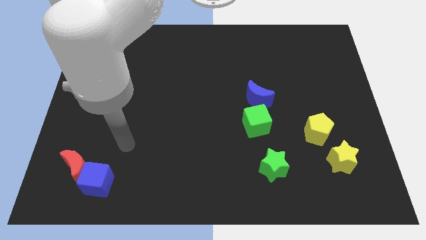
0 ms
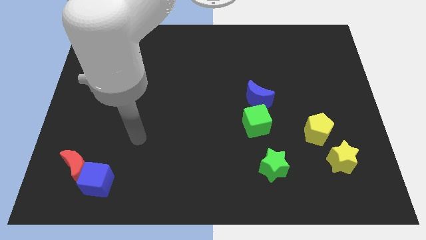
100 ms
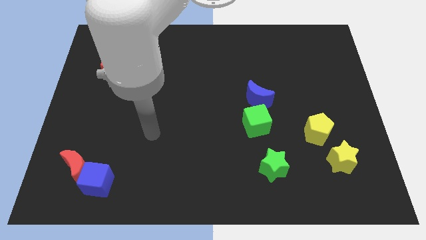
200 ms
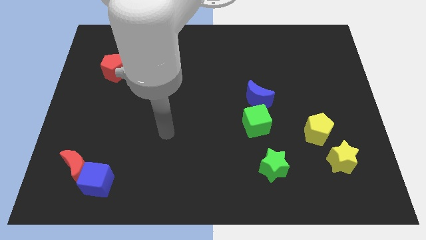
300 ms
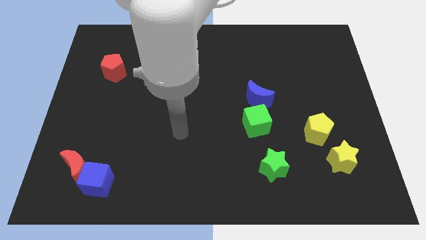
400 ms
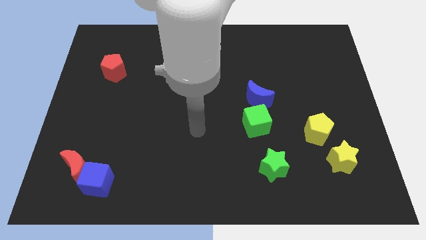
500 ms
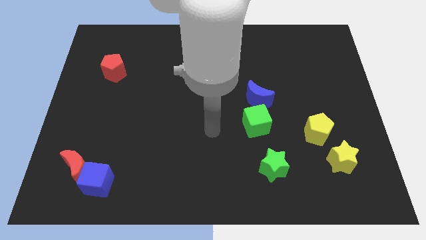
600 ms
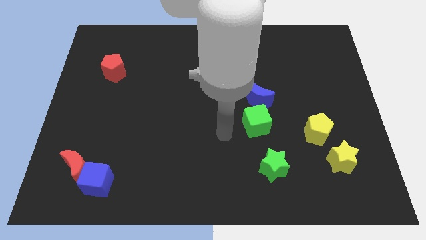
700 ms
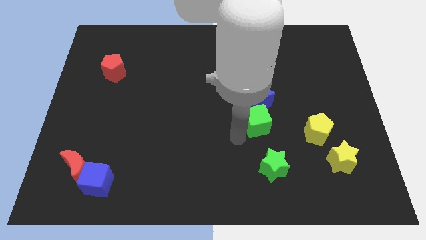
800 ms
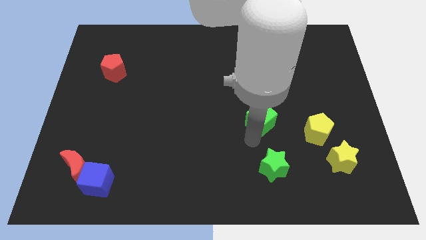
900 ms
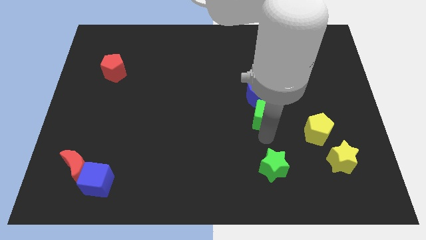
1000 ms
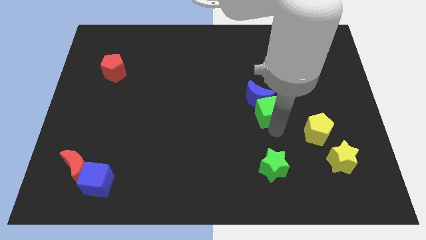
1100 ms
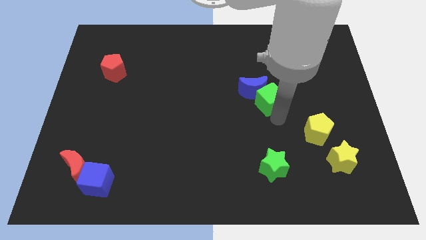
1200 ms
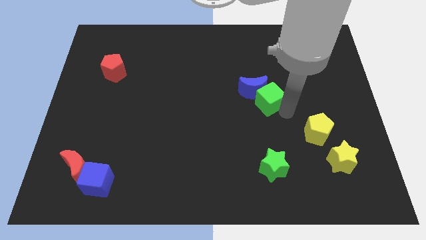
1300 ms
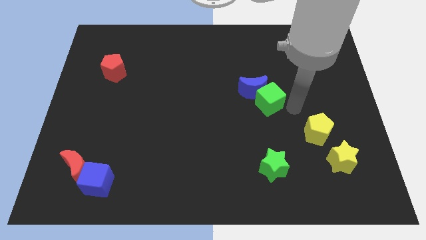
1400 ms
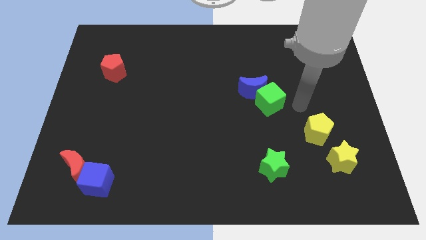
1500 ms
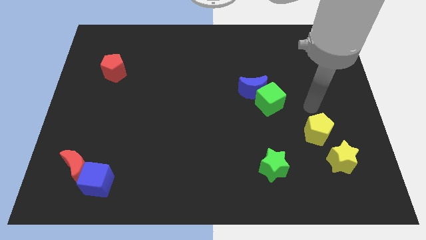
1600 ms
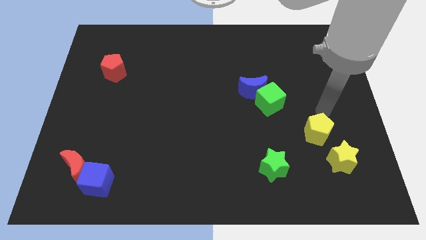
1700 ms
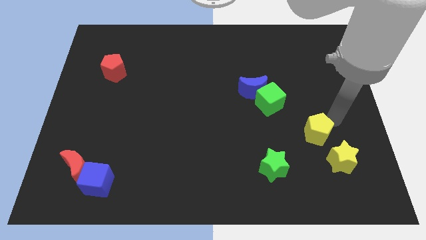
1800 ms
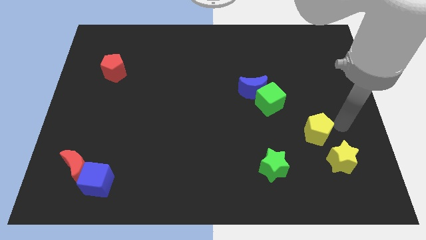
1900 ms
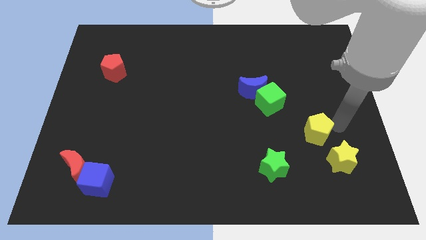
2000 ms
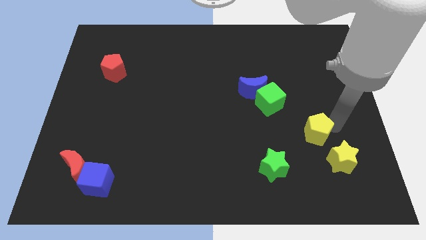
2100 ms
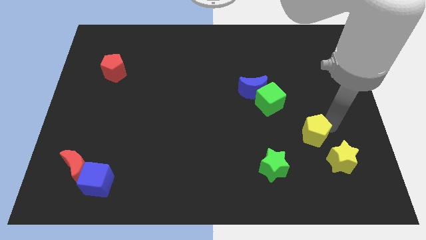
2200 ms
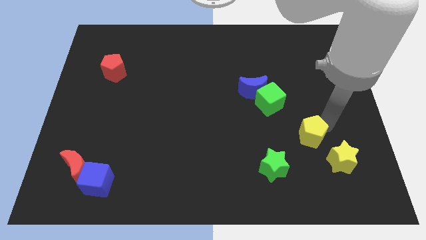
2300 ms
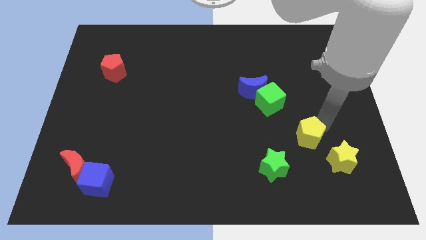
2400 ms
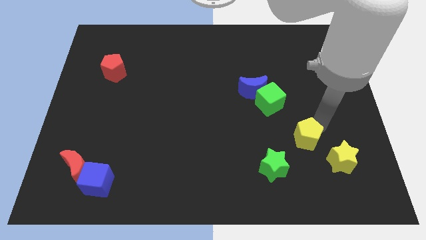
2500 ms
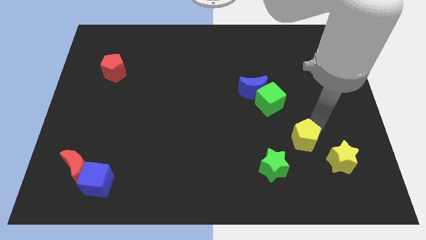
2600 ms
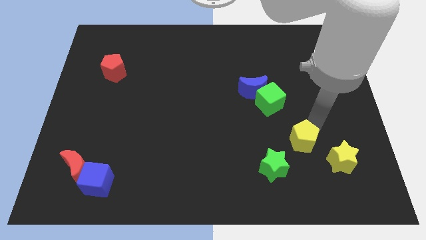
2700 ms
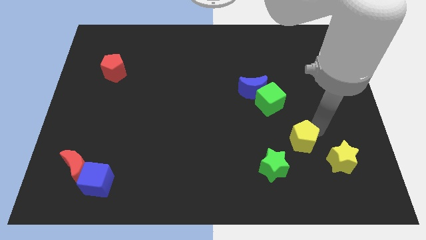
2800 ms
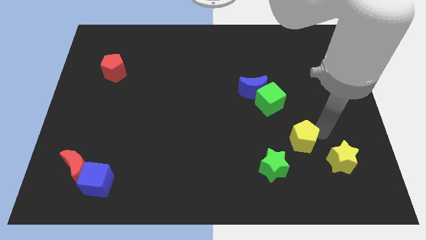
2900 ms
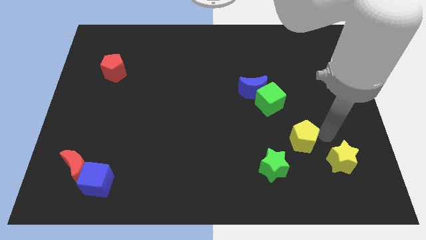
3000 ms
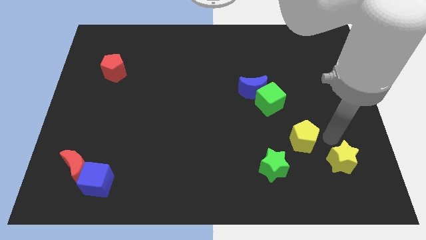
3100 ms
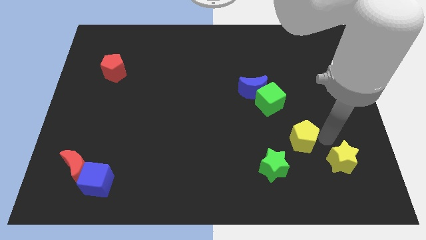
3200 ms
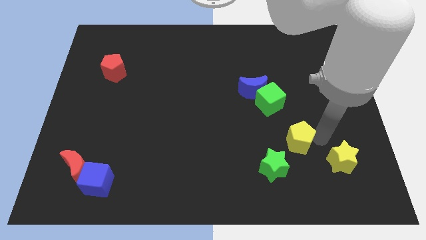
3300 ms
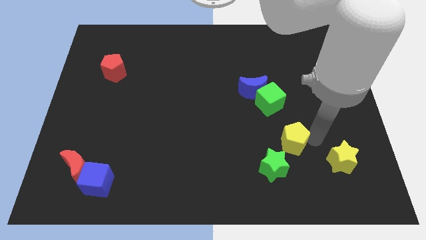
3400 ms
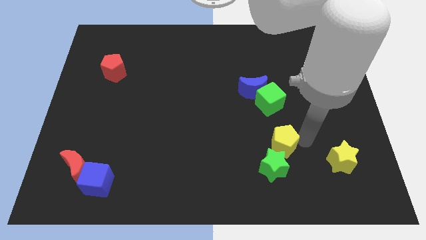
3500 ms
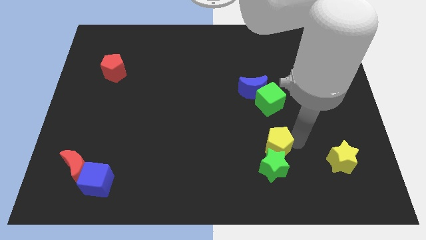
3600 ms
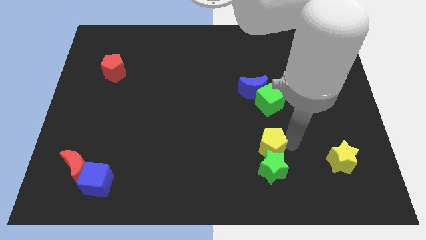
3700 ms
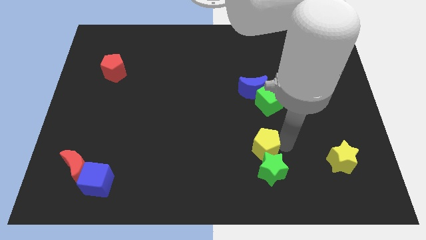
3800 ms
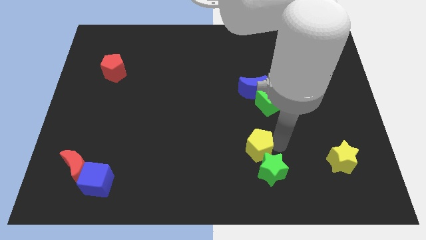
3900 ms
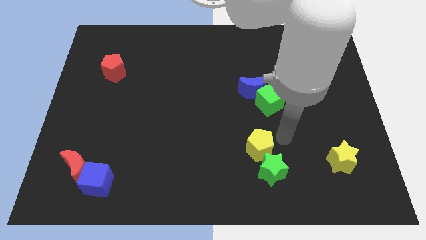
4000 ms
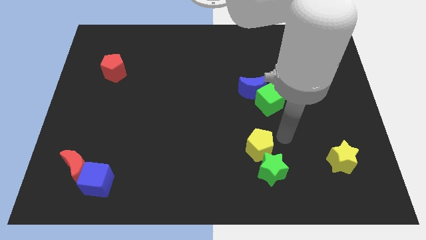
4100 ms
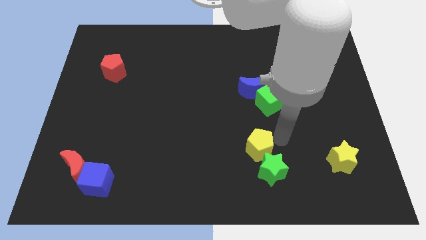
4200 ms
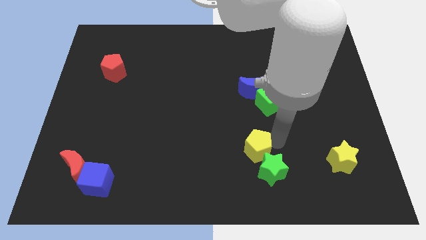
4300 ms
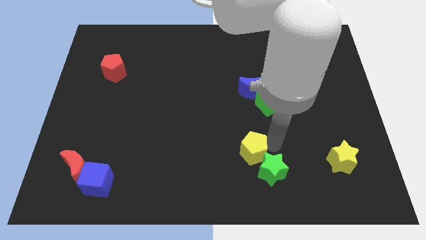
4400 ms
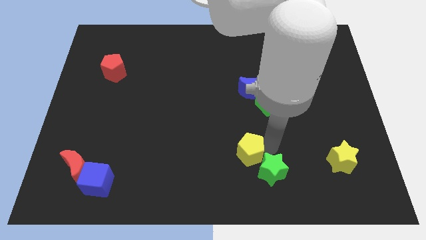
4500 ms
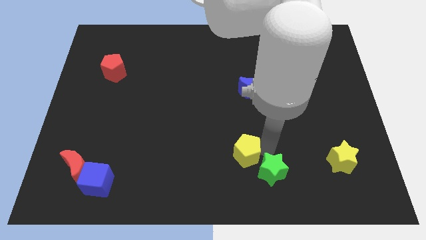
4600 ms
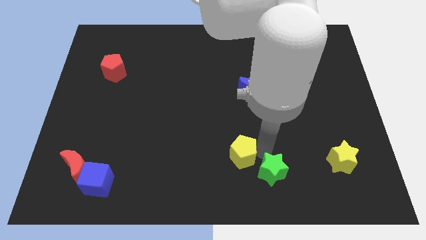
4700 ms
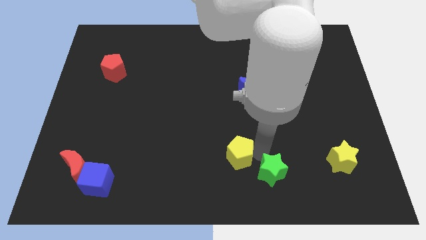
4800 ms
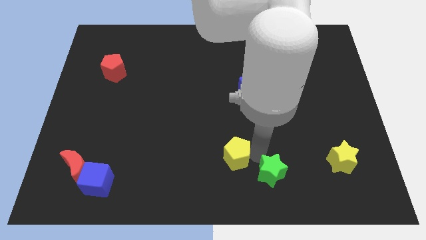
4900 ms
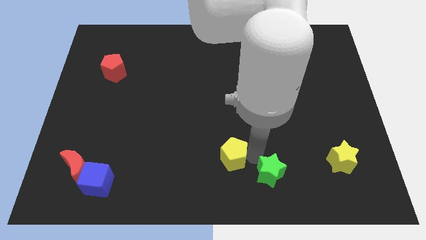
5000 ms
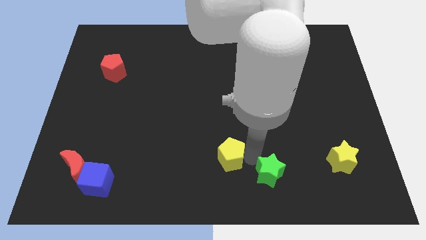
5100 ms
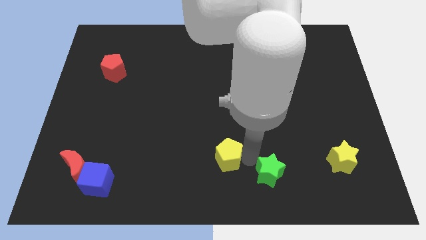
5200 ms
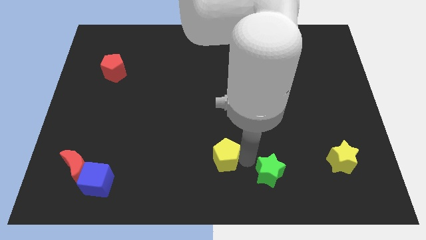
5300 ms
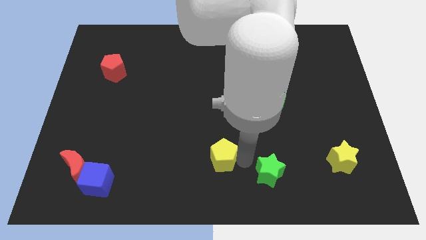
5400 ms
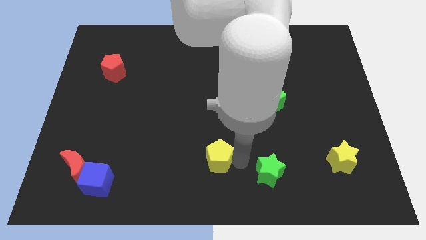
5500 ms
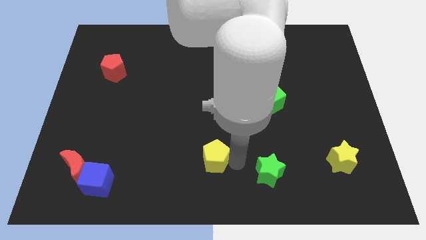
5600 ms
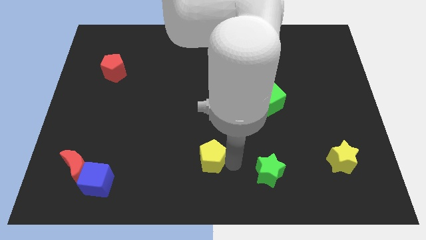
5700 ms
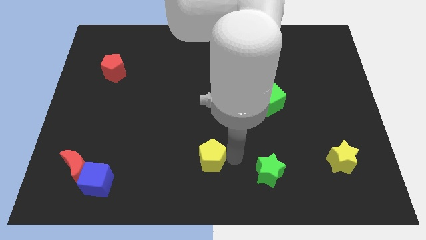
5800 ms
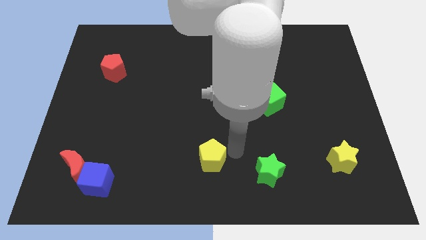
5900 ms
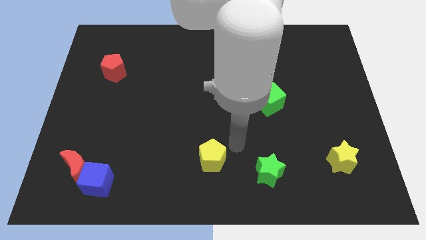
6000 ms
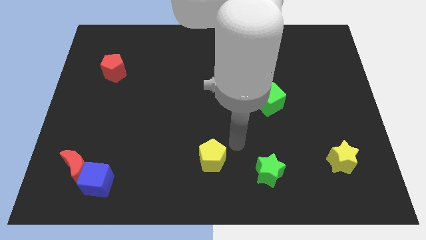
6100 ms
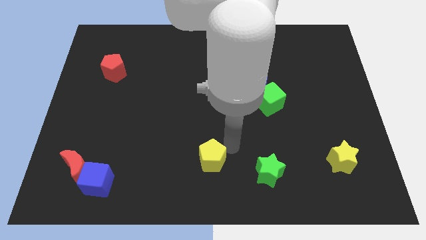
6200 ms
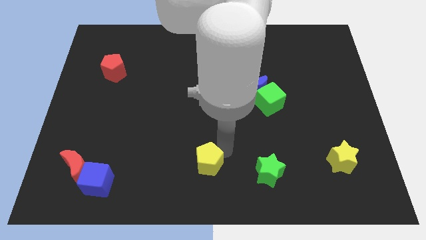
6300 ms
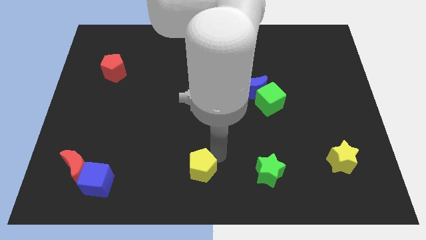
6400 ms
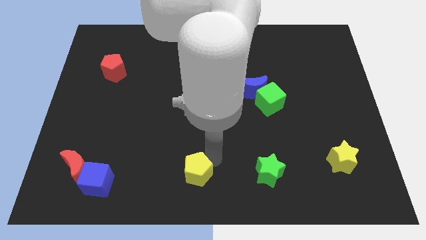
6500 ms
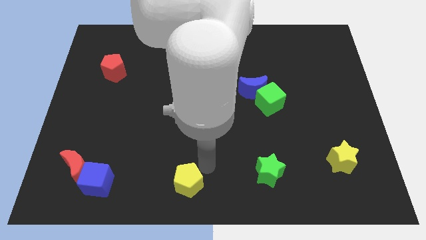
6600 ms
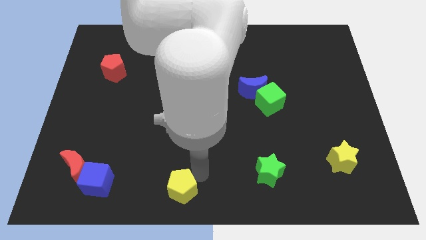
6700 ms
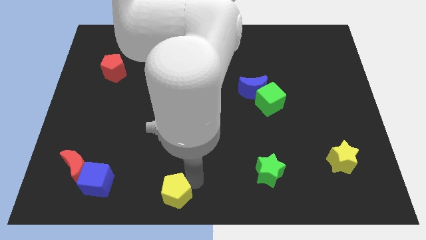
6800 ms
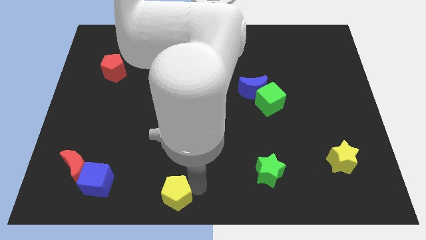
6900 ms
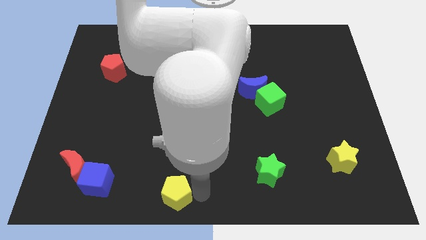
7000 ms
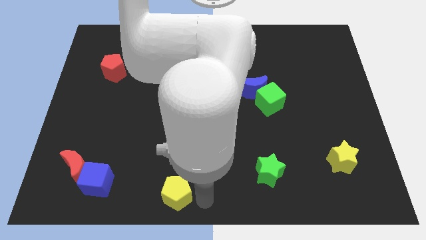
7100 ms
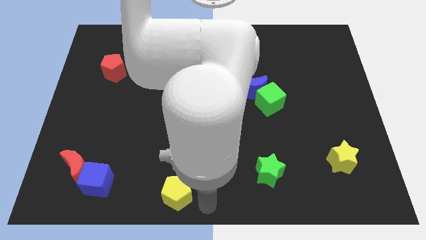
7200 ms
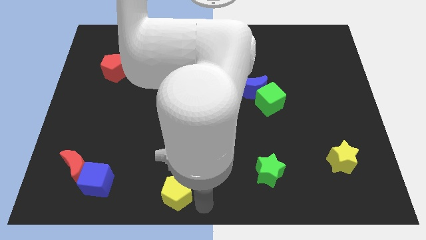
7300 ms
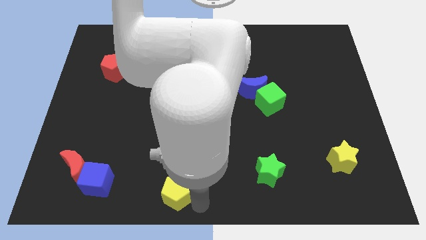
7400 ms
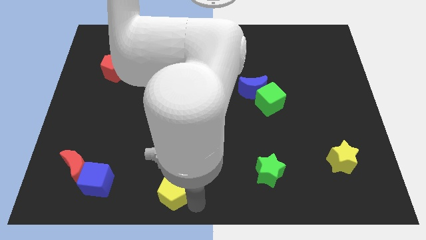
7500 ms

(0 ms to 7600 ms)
move the yellow pentagon right of the blue cube
